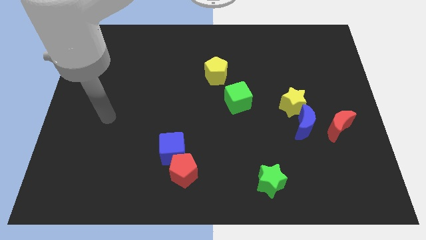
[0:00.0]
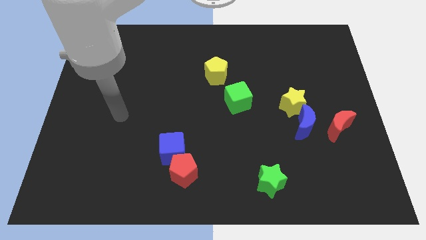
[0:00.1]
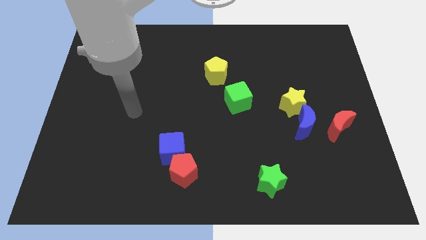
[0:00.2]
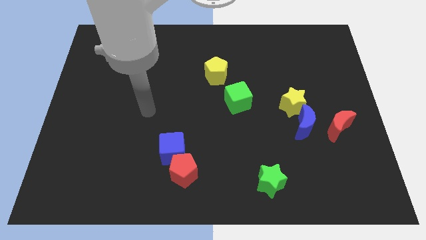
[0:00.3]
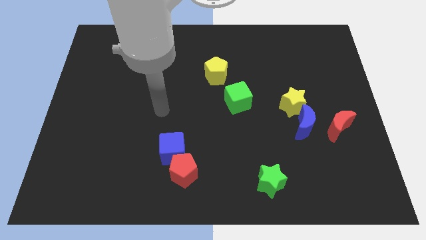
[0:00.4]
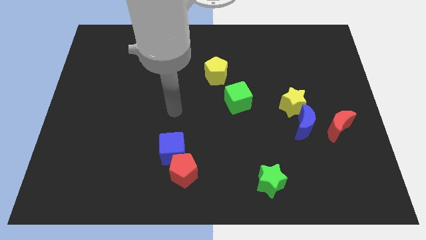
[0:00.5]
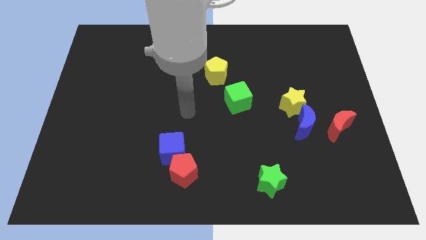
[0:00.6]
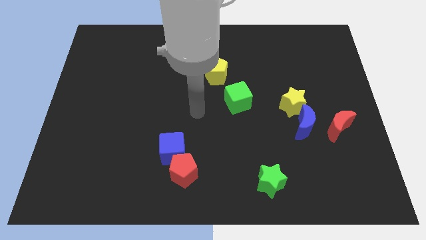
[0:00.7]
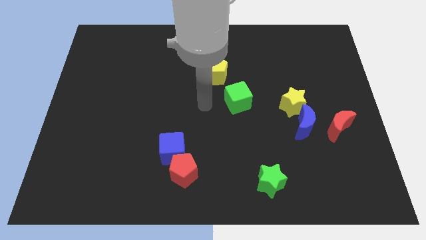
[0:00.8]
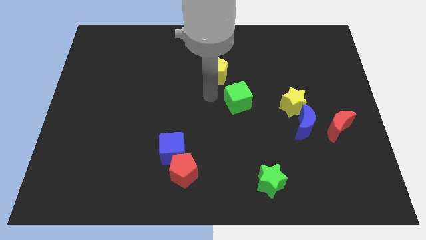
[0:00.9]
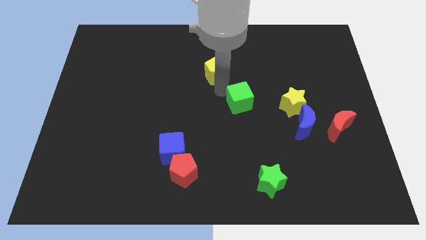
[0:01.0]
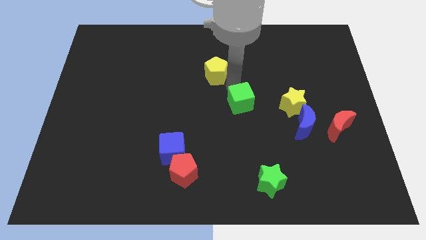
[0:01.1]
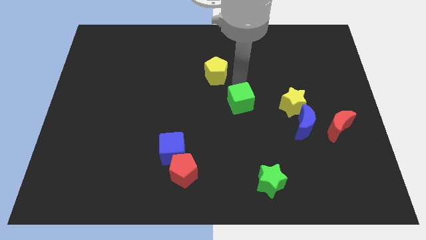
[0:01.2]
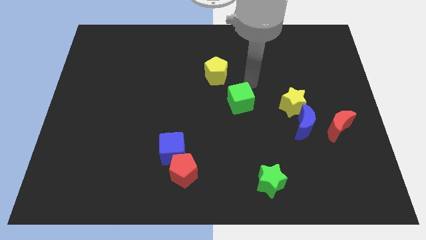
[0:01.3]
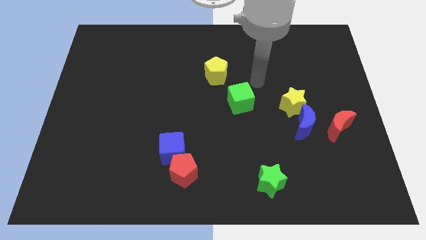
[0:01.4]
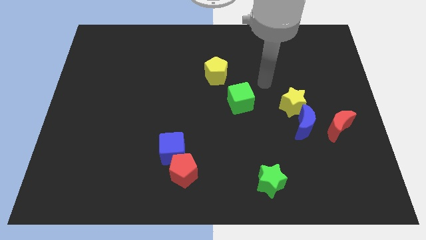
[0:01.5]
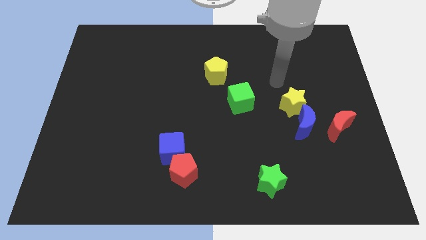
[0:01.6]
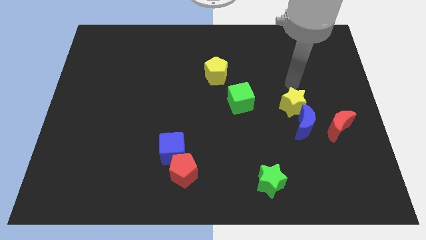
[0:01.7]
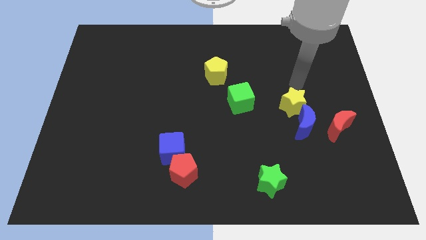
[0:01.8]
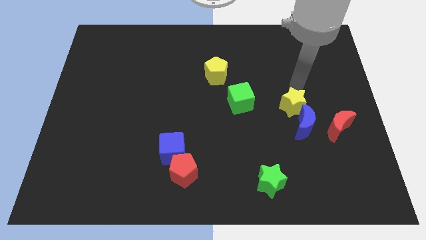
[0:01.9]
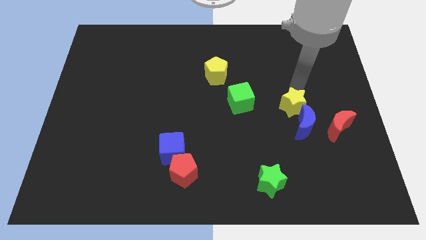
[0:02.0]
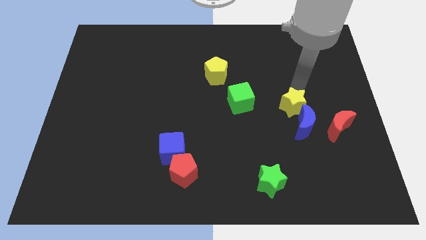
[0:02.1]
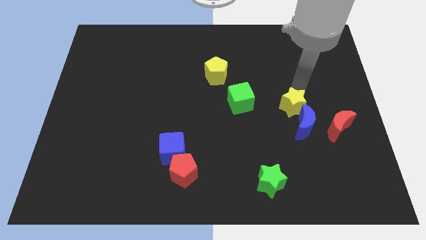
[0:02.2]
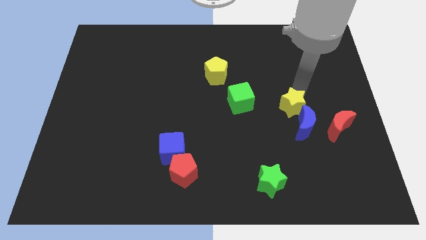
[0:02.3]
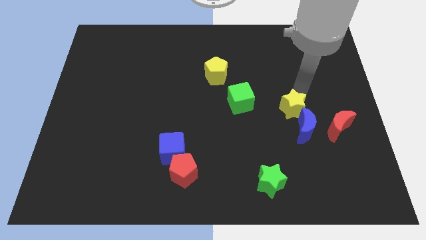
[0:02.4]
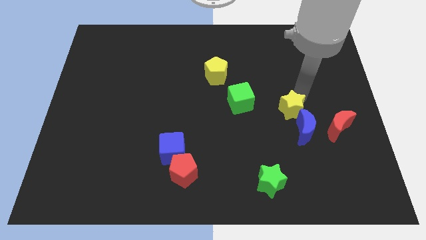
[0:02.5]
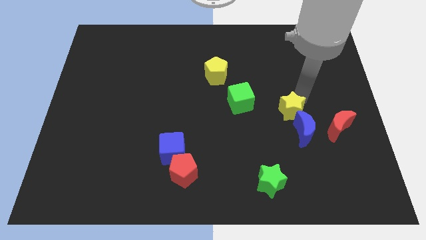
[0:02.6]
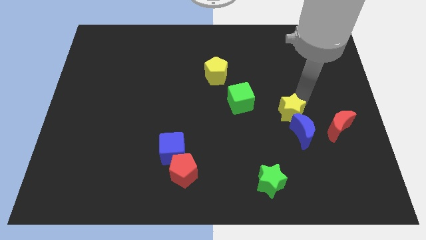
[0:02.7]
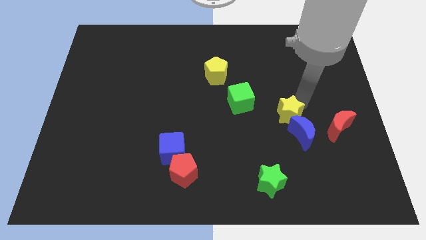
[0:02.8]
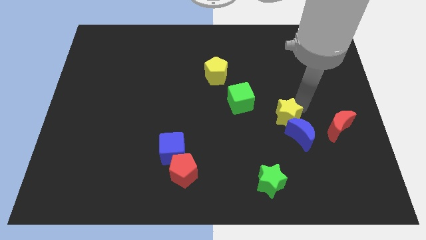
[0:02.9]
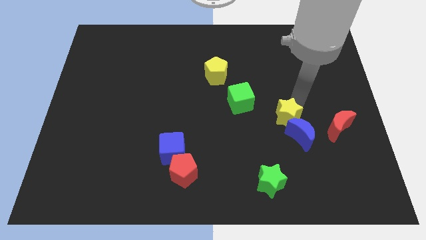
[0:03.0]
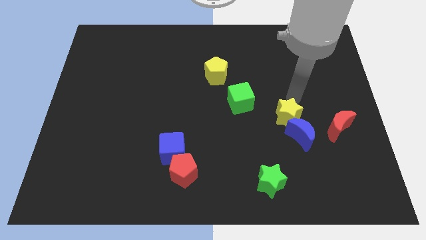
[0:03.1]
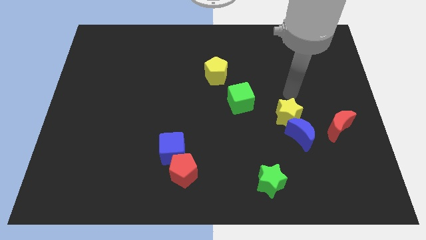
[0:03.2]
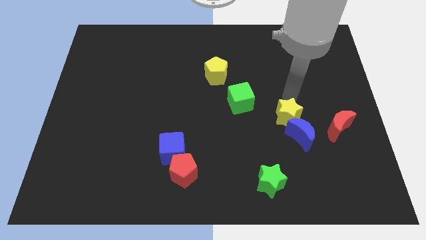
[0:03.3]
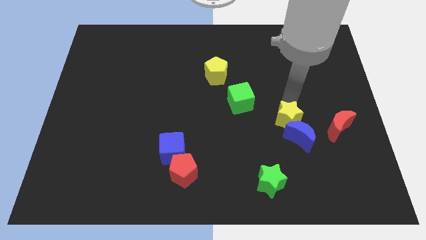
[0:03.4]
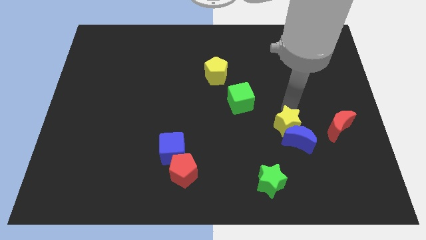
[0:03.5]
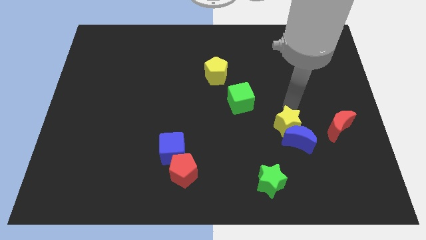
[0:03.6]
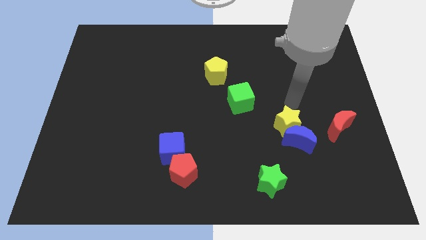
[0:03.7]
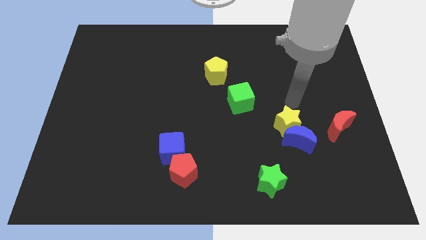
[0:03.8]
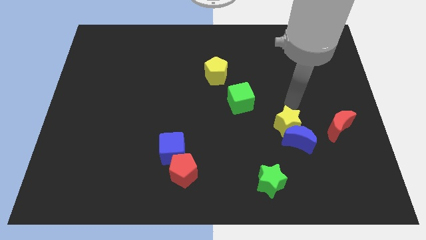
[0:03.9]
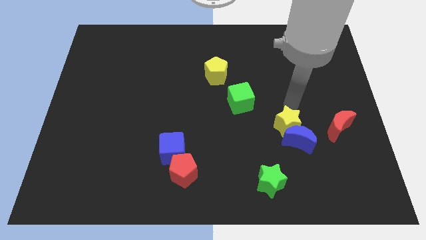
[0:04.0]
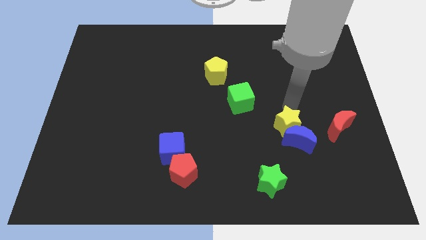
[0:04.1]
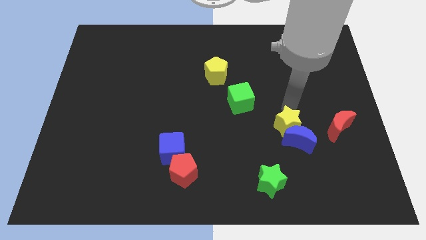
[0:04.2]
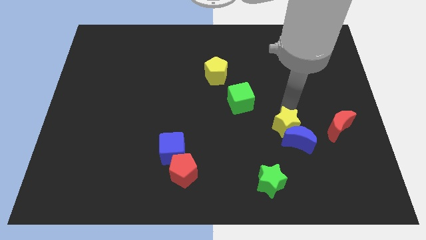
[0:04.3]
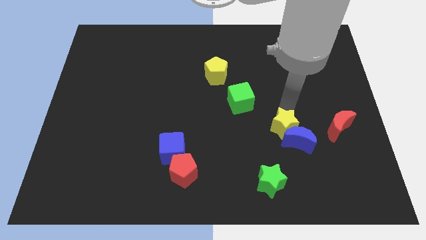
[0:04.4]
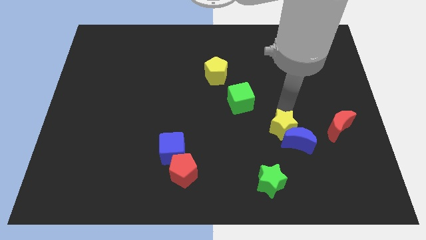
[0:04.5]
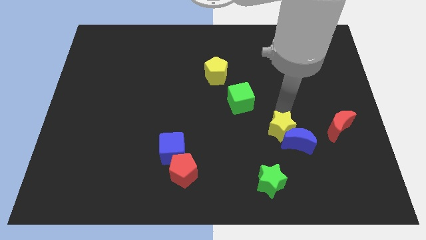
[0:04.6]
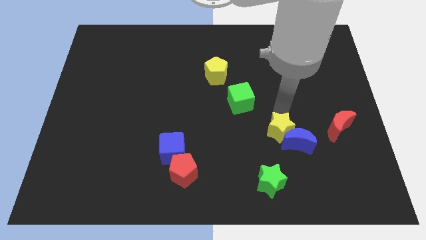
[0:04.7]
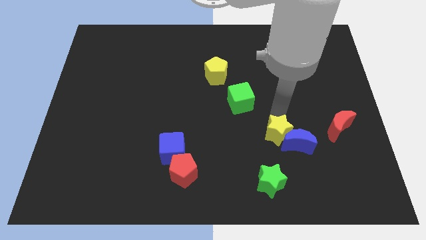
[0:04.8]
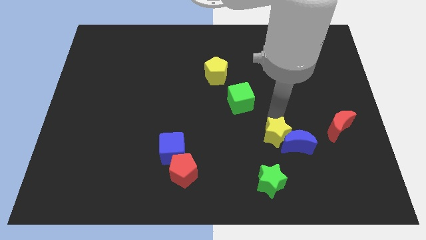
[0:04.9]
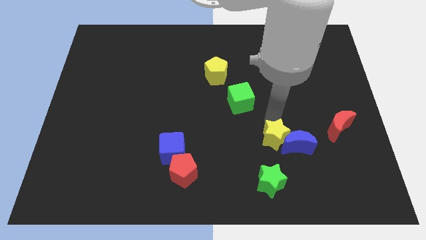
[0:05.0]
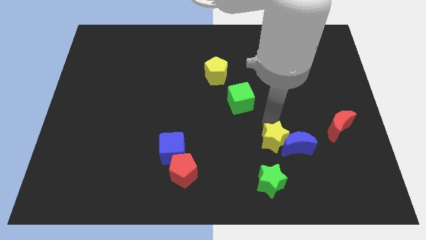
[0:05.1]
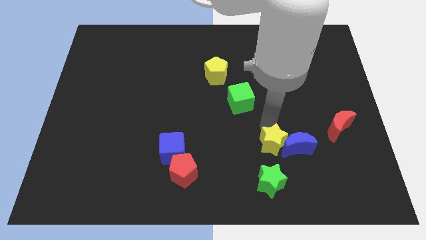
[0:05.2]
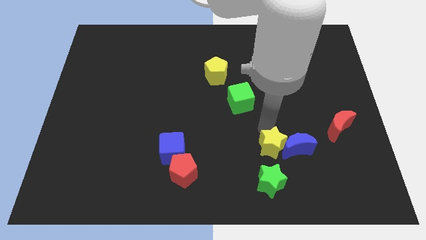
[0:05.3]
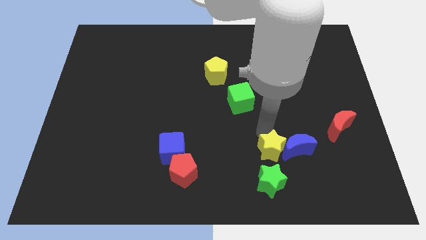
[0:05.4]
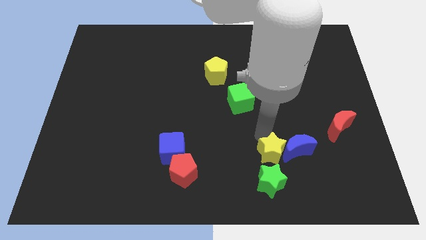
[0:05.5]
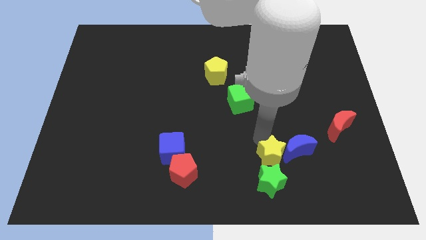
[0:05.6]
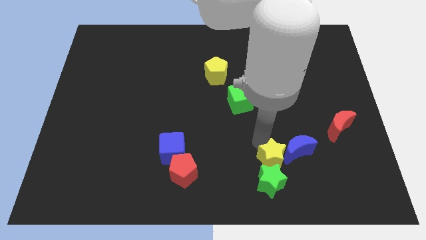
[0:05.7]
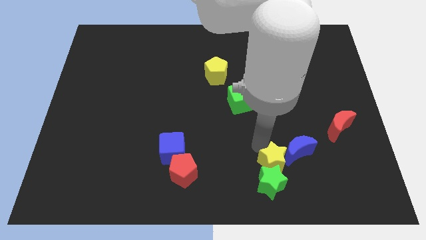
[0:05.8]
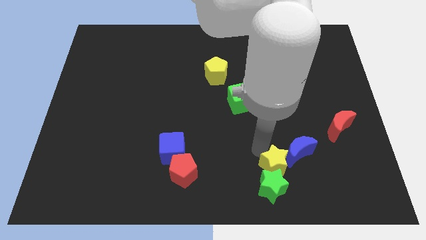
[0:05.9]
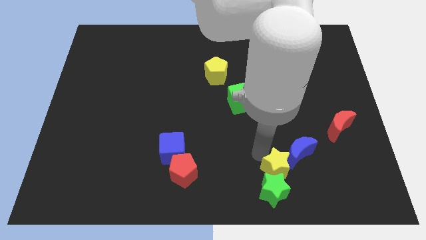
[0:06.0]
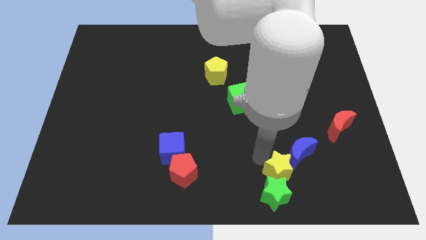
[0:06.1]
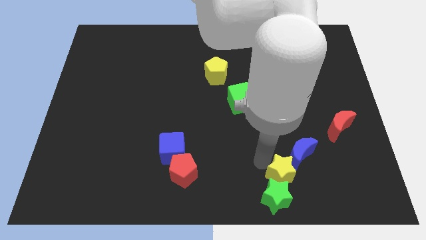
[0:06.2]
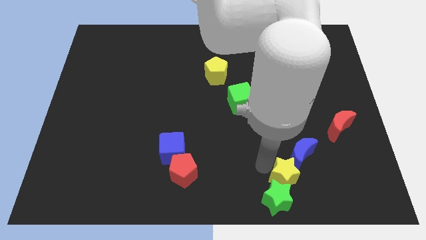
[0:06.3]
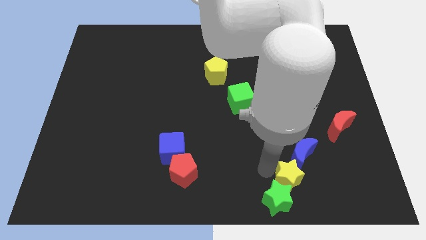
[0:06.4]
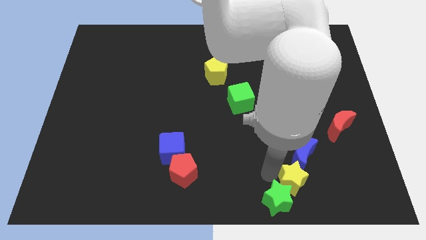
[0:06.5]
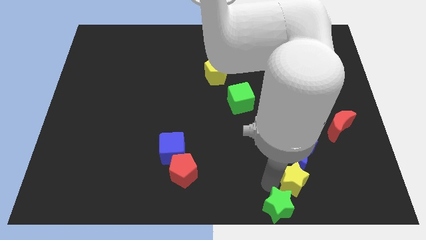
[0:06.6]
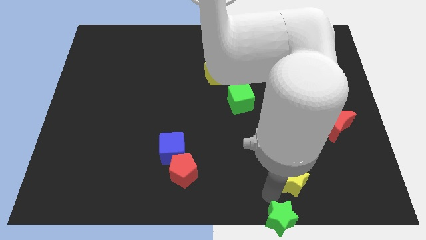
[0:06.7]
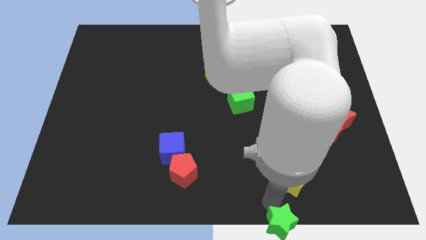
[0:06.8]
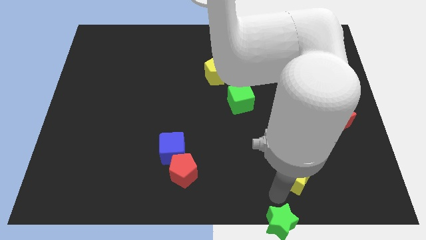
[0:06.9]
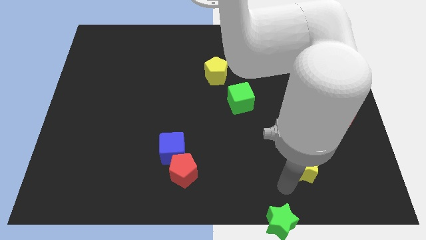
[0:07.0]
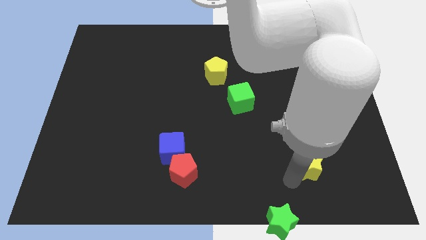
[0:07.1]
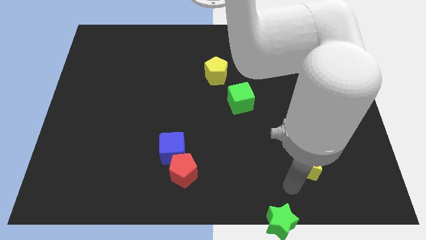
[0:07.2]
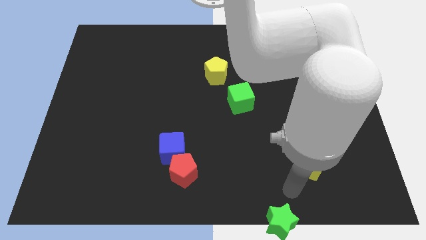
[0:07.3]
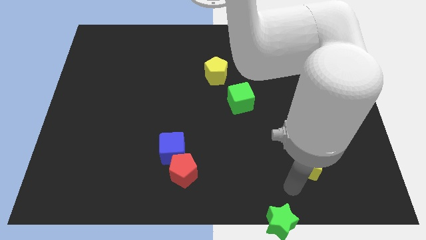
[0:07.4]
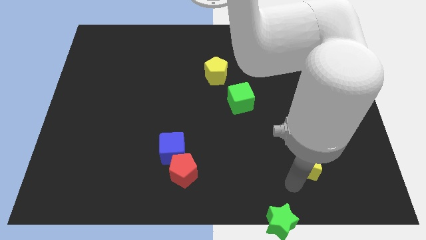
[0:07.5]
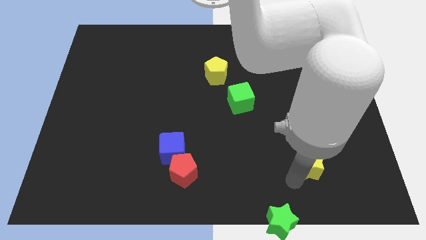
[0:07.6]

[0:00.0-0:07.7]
move the yellow star diagonally down and to the left of the red moon
